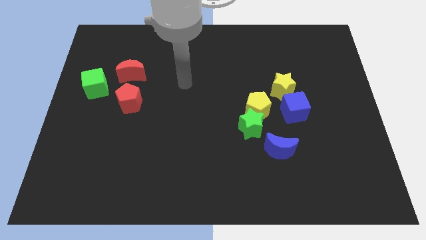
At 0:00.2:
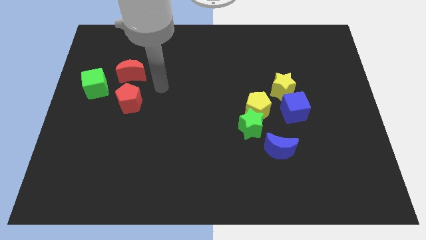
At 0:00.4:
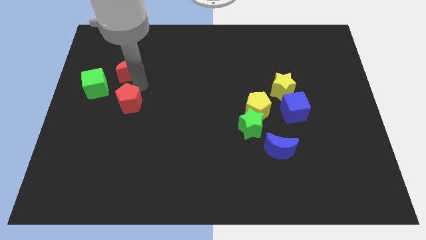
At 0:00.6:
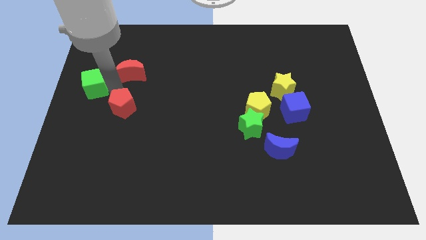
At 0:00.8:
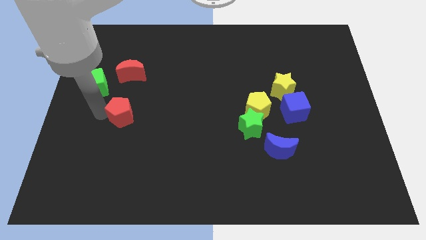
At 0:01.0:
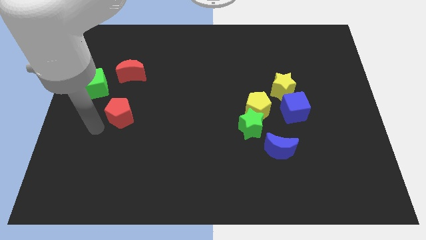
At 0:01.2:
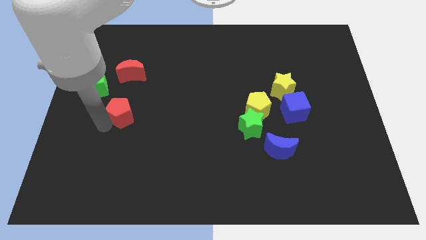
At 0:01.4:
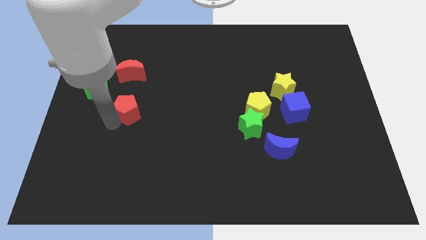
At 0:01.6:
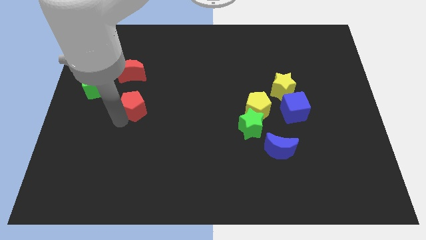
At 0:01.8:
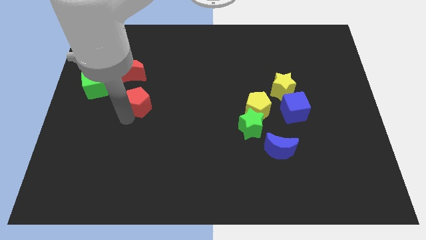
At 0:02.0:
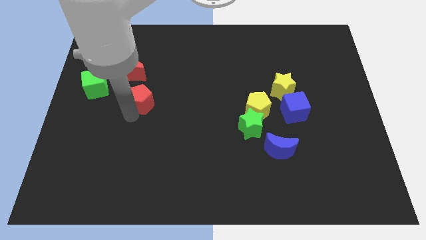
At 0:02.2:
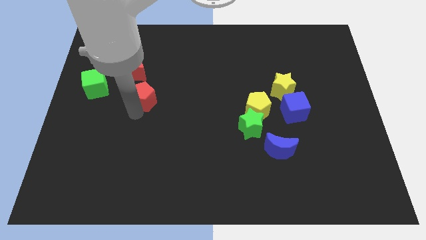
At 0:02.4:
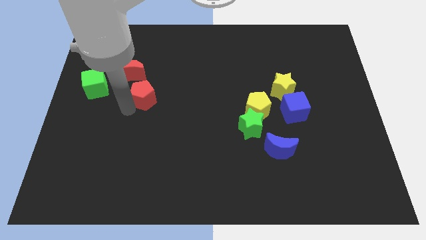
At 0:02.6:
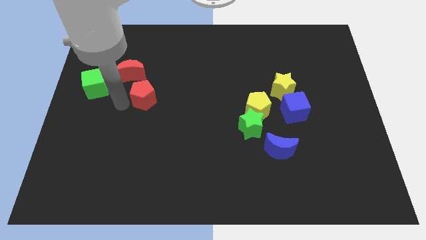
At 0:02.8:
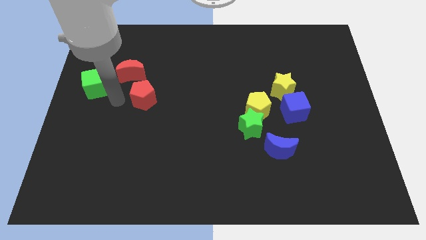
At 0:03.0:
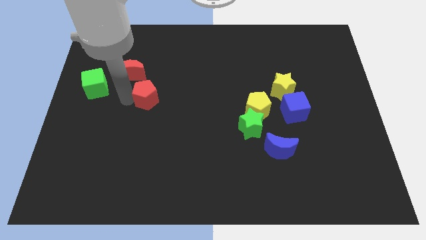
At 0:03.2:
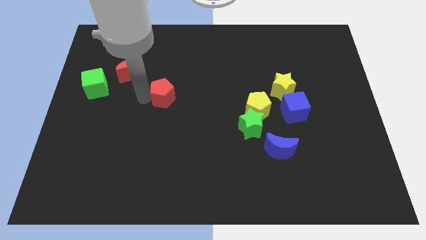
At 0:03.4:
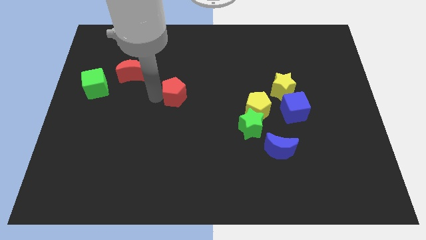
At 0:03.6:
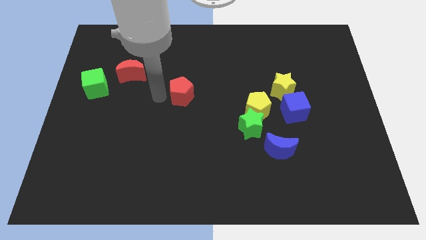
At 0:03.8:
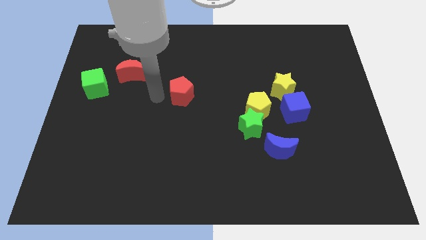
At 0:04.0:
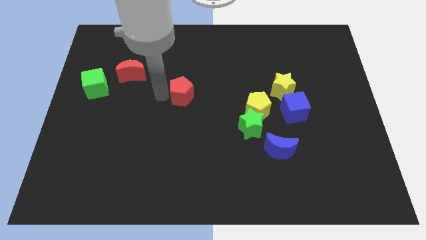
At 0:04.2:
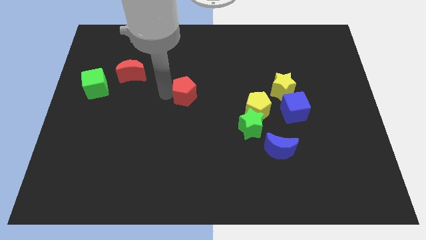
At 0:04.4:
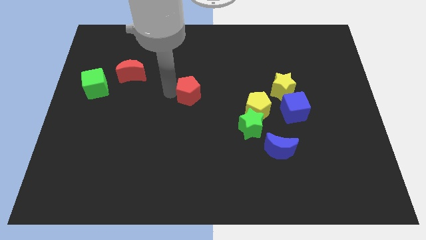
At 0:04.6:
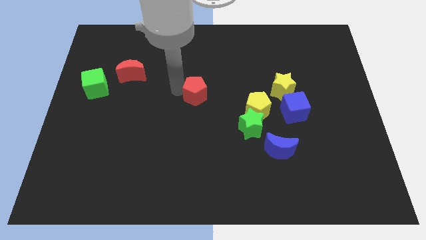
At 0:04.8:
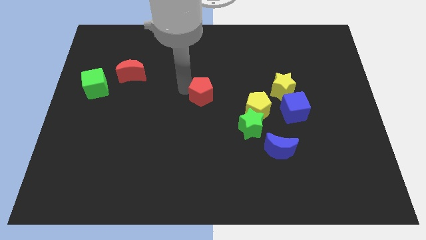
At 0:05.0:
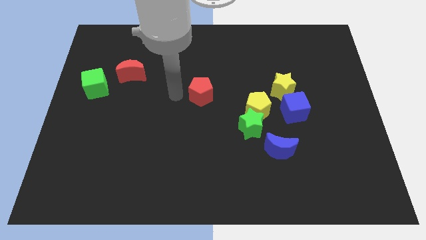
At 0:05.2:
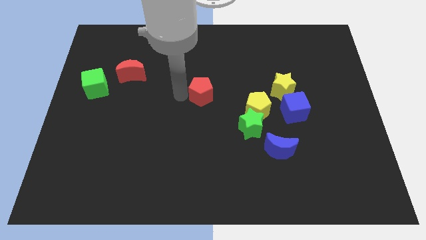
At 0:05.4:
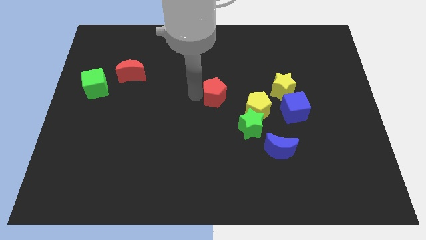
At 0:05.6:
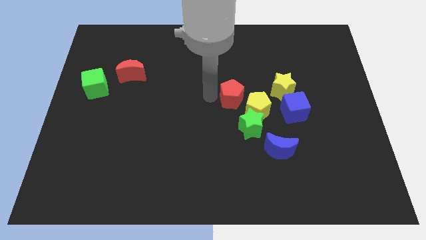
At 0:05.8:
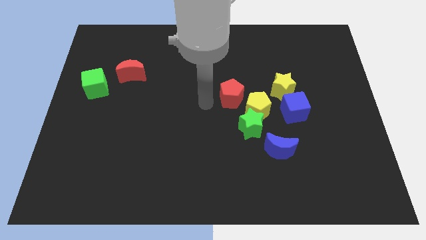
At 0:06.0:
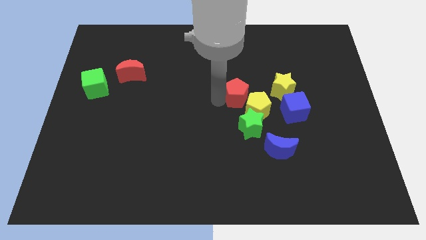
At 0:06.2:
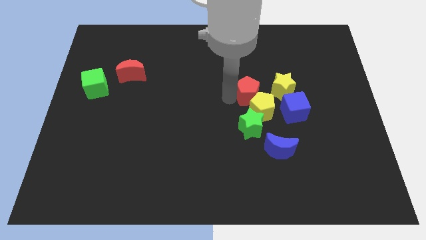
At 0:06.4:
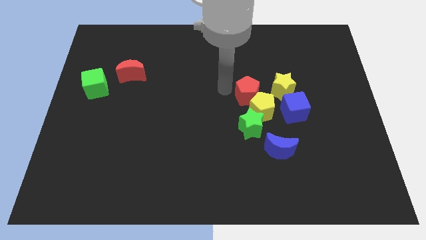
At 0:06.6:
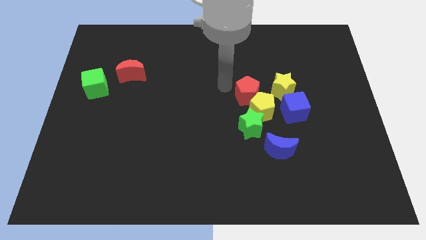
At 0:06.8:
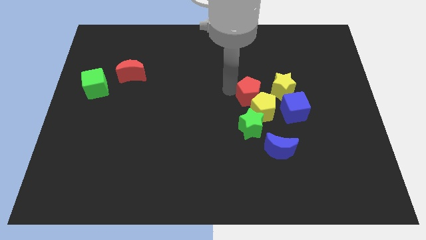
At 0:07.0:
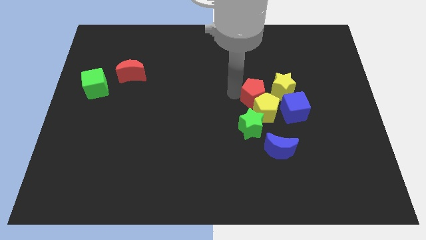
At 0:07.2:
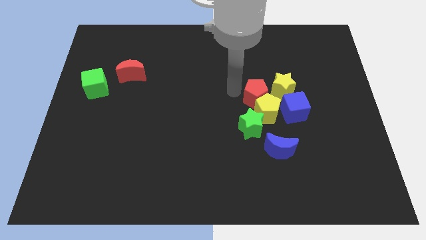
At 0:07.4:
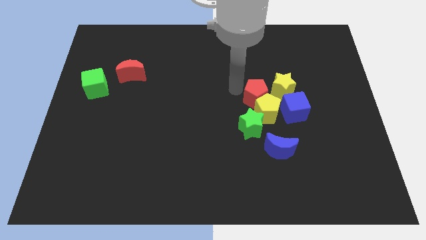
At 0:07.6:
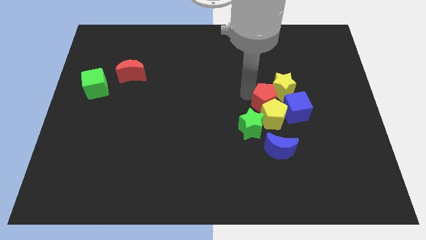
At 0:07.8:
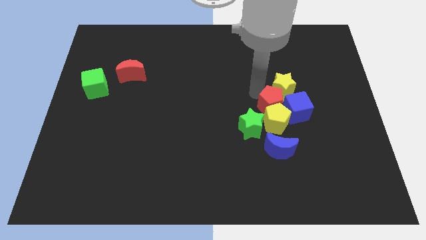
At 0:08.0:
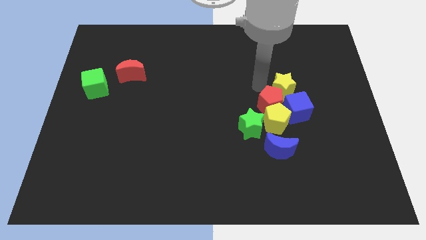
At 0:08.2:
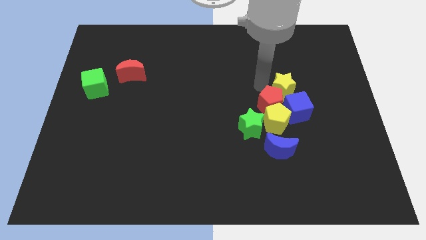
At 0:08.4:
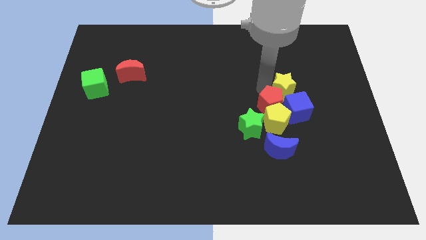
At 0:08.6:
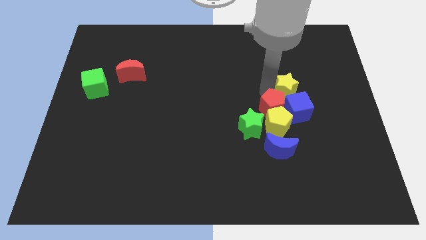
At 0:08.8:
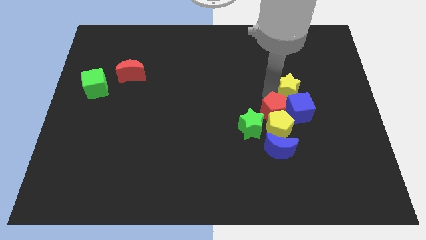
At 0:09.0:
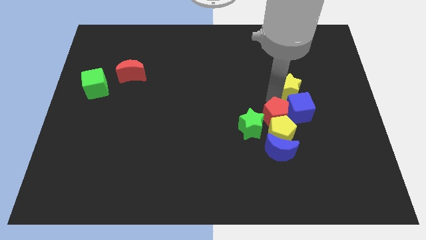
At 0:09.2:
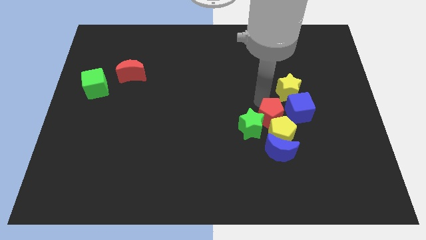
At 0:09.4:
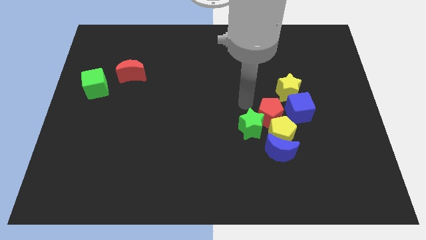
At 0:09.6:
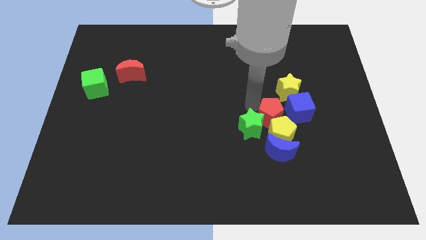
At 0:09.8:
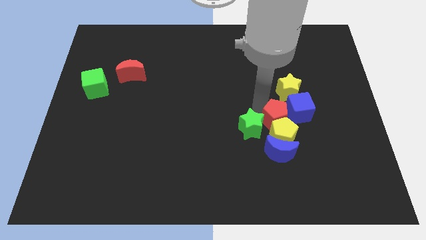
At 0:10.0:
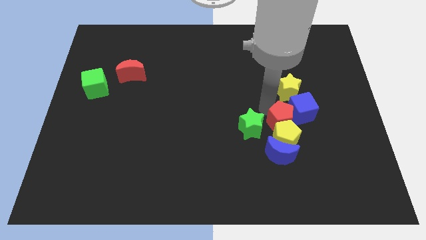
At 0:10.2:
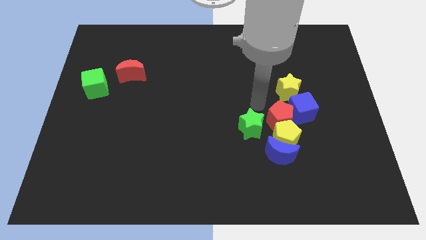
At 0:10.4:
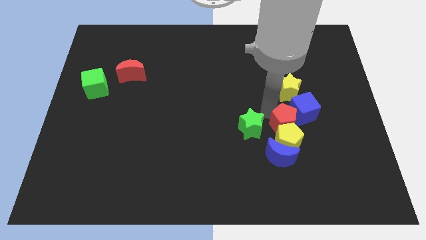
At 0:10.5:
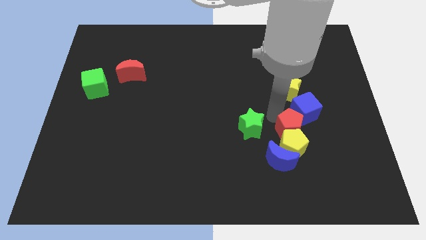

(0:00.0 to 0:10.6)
slide the red pentagon to the top right of the blue moon

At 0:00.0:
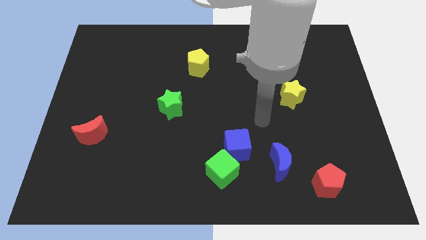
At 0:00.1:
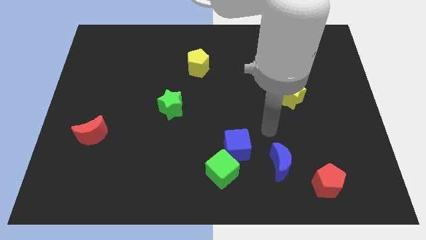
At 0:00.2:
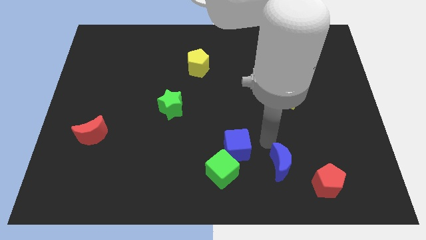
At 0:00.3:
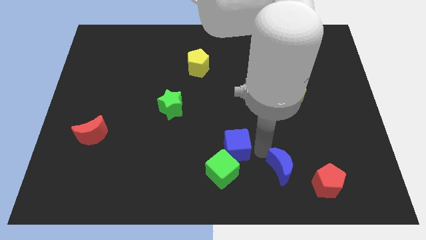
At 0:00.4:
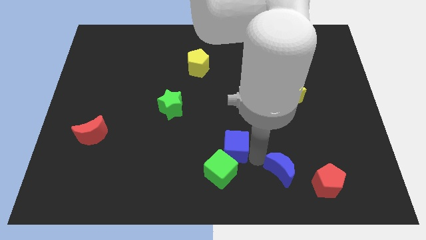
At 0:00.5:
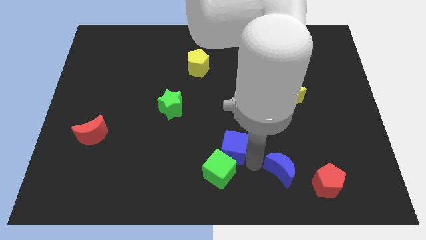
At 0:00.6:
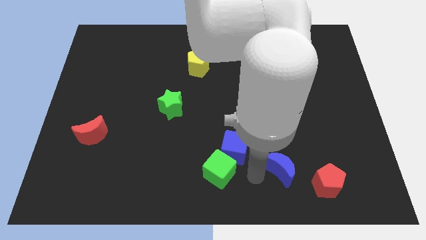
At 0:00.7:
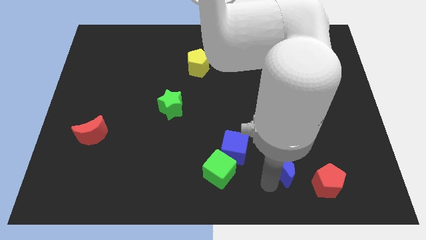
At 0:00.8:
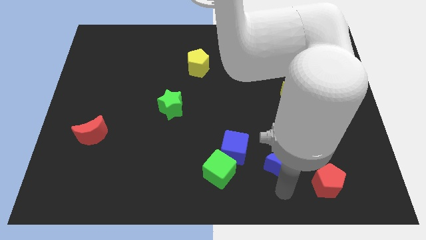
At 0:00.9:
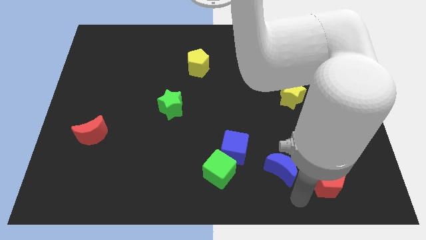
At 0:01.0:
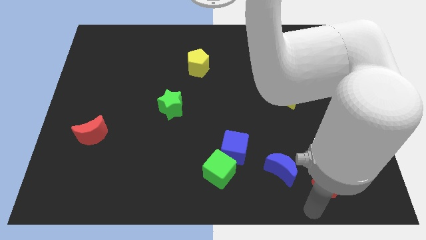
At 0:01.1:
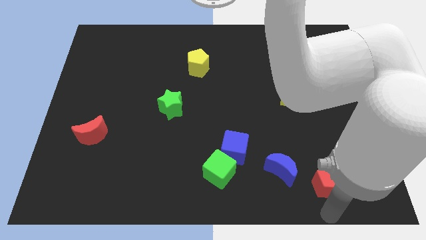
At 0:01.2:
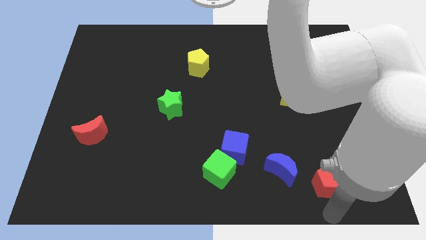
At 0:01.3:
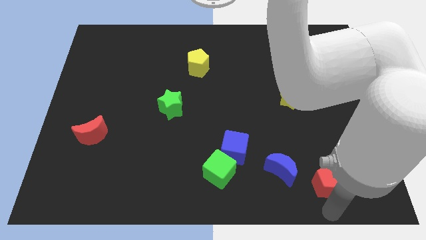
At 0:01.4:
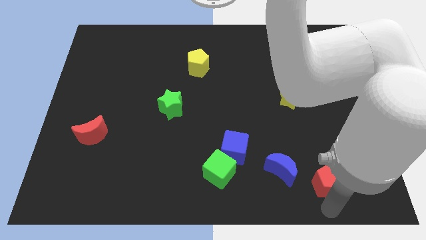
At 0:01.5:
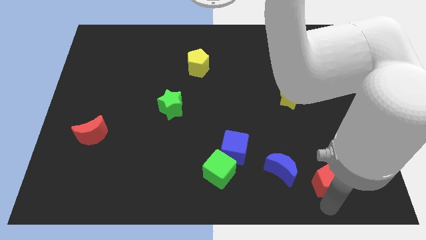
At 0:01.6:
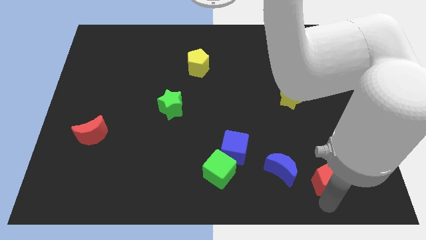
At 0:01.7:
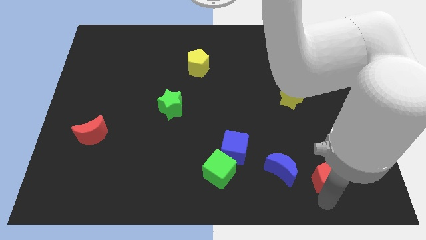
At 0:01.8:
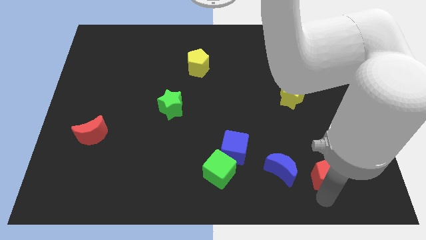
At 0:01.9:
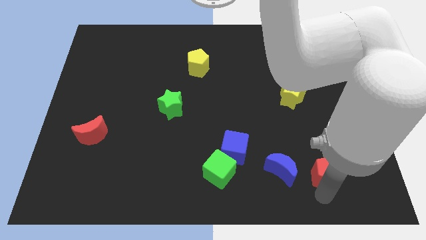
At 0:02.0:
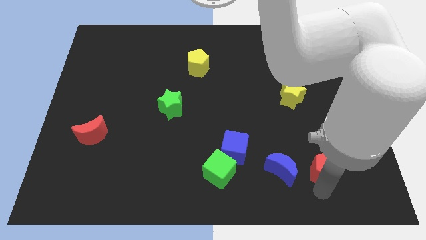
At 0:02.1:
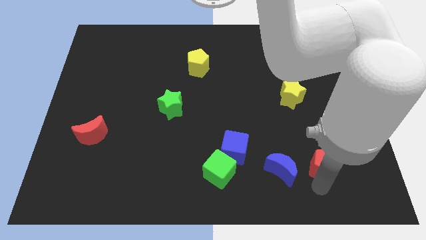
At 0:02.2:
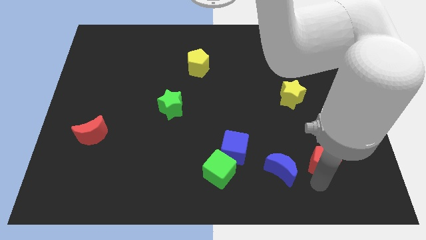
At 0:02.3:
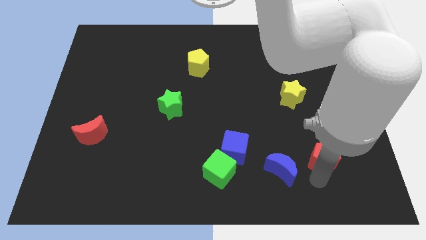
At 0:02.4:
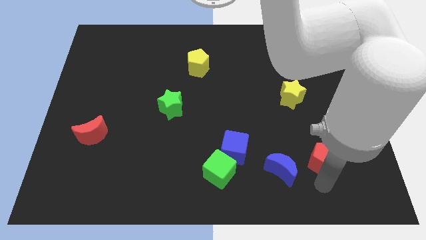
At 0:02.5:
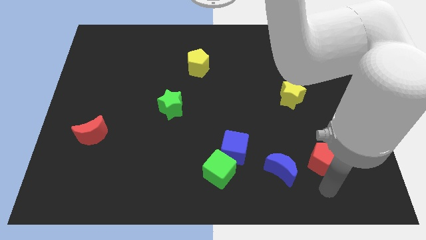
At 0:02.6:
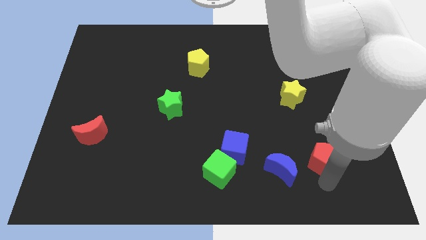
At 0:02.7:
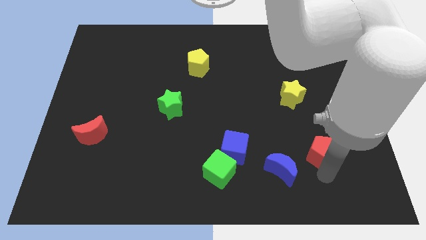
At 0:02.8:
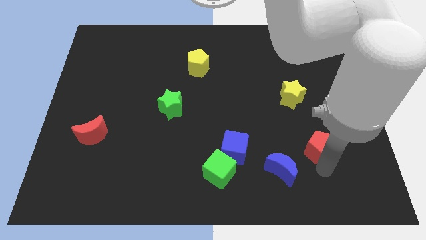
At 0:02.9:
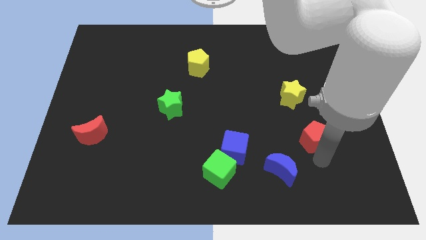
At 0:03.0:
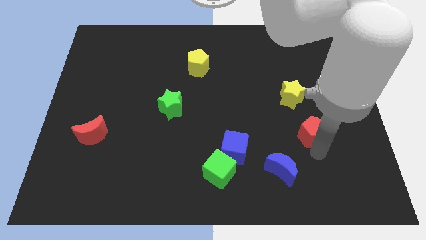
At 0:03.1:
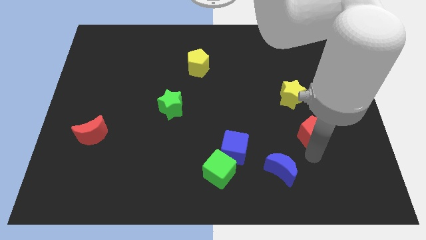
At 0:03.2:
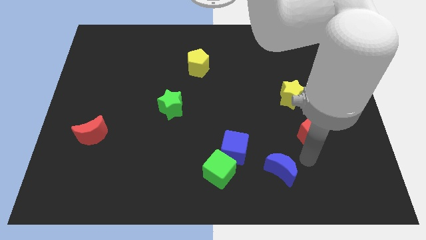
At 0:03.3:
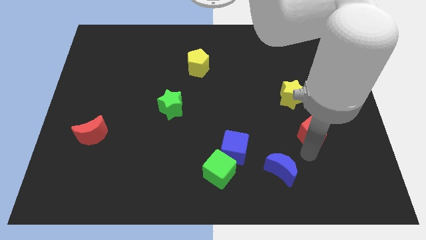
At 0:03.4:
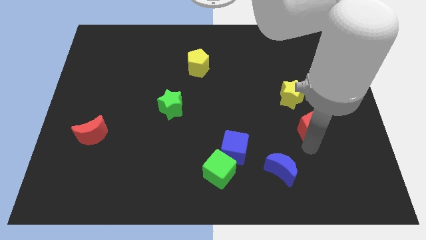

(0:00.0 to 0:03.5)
put the red pentagon to the bottom right of the yellow star
